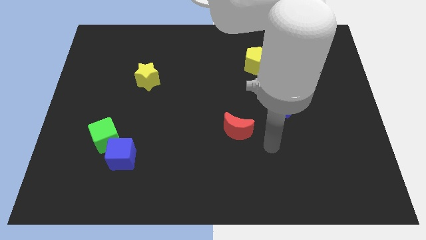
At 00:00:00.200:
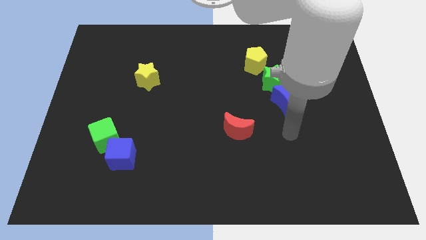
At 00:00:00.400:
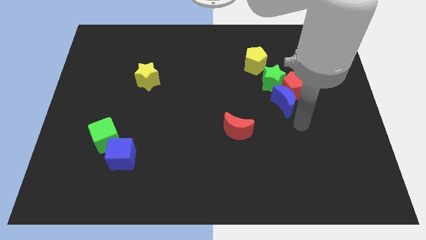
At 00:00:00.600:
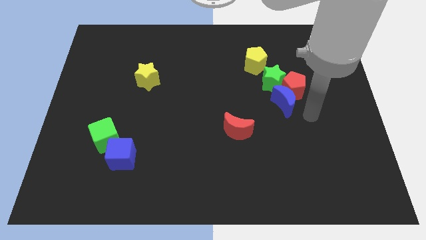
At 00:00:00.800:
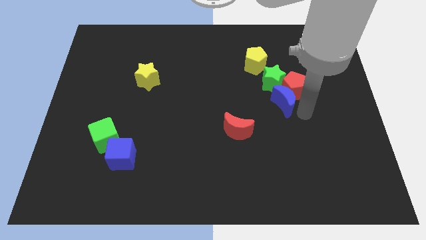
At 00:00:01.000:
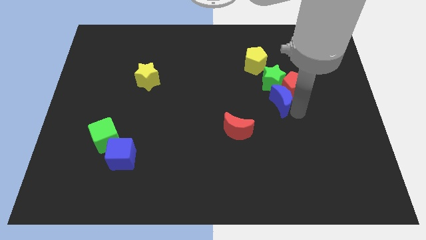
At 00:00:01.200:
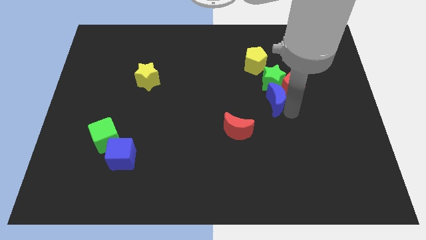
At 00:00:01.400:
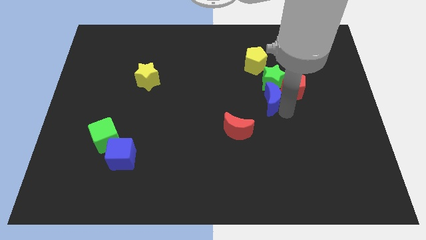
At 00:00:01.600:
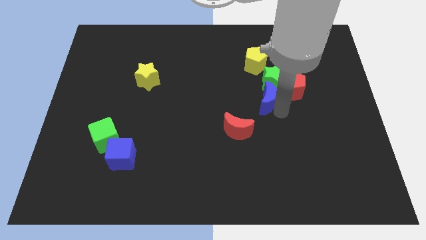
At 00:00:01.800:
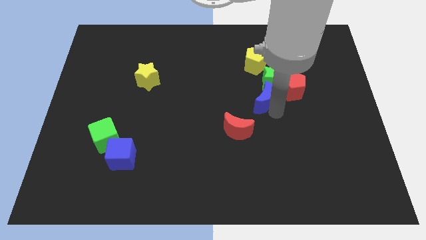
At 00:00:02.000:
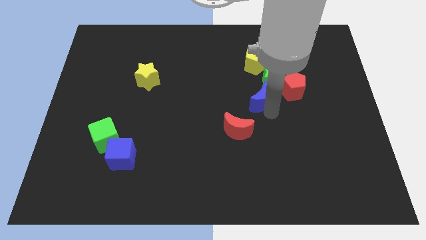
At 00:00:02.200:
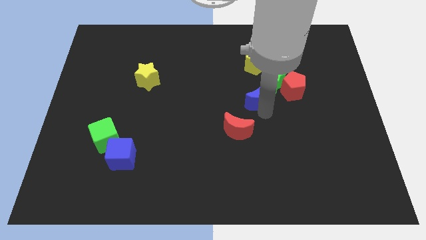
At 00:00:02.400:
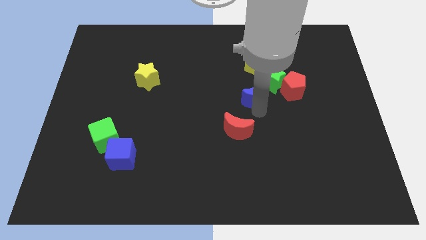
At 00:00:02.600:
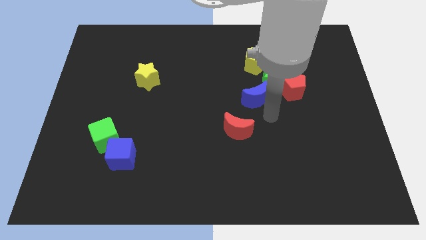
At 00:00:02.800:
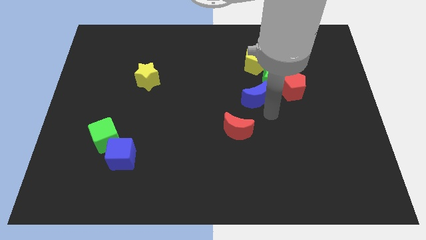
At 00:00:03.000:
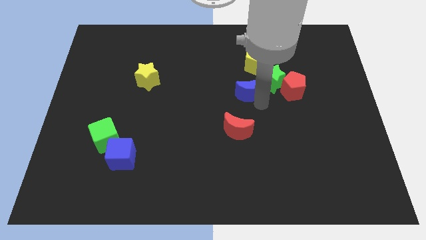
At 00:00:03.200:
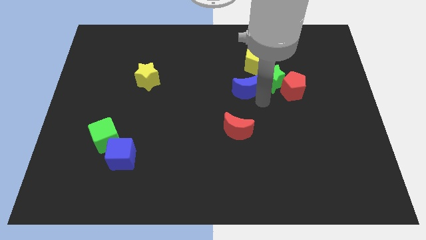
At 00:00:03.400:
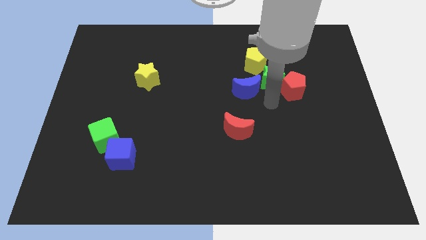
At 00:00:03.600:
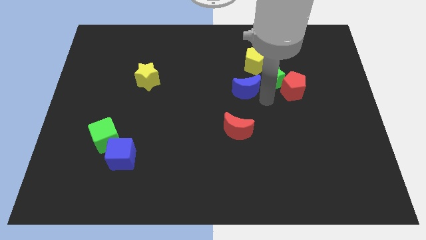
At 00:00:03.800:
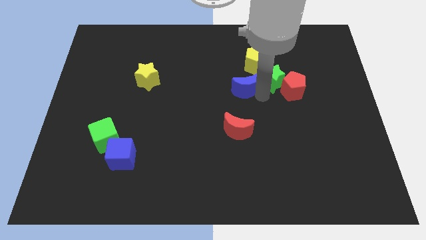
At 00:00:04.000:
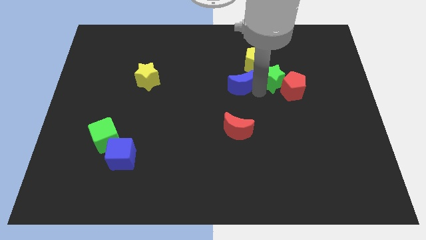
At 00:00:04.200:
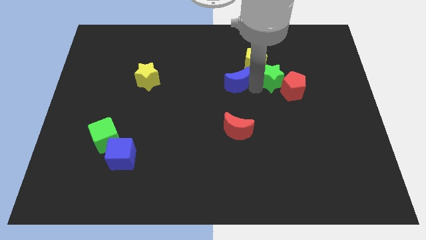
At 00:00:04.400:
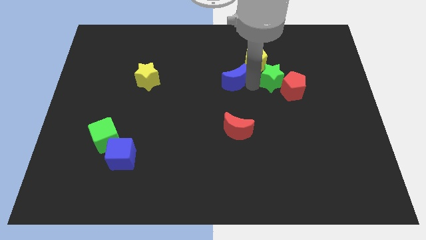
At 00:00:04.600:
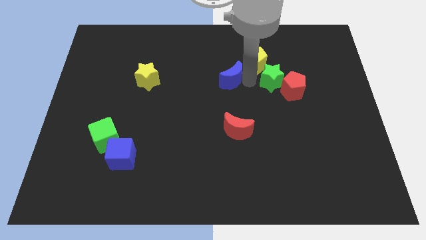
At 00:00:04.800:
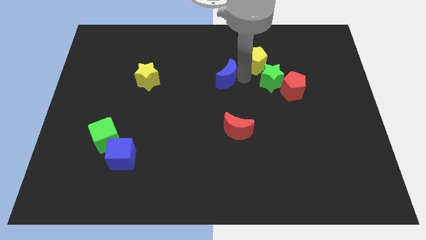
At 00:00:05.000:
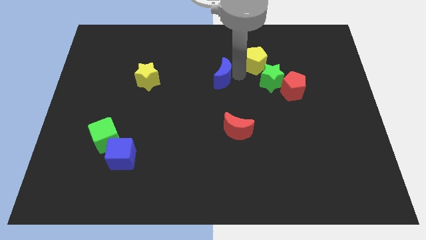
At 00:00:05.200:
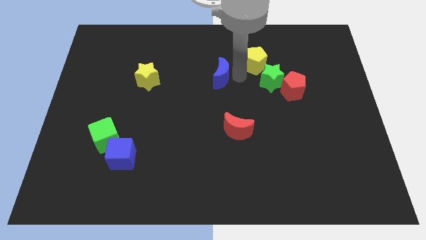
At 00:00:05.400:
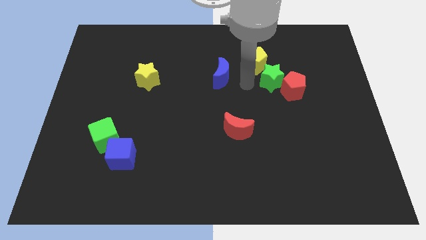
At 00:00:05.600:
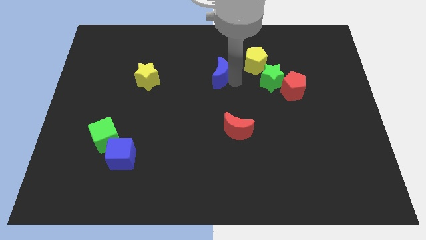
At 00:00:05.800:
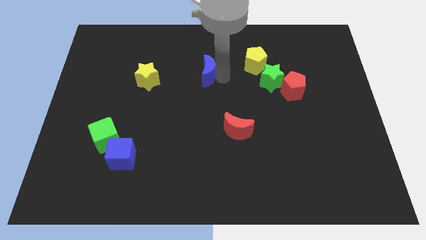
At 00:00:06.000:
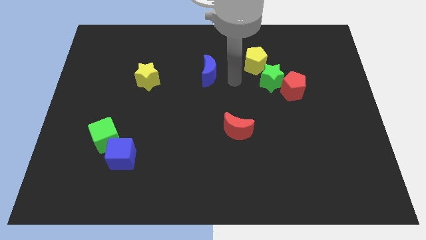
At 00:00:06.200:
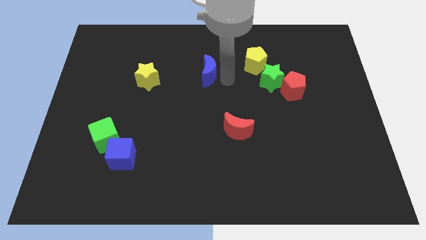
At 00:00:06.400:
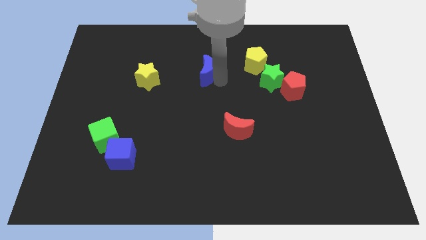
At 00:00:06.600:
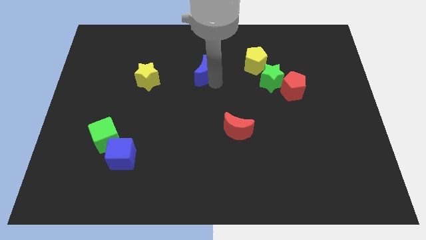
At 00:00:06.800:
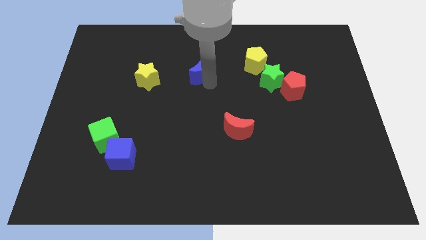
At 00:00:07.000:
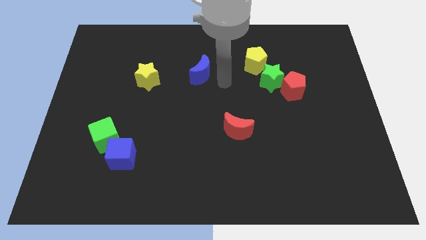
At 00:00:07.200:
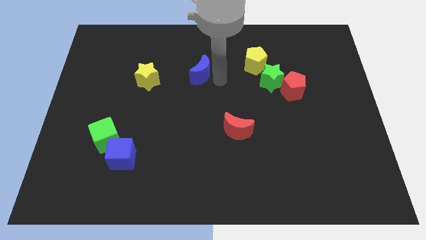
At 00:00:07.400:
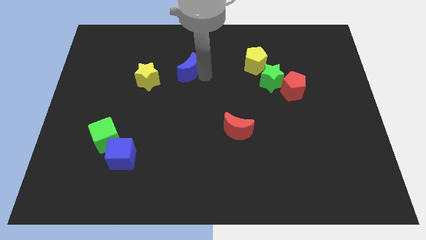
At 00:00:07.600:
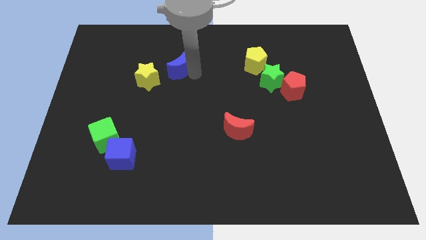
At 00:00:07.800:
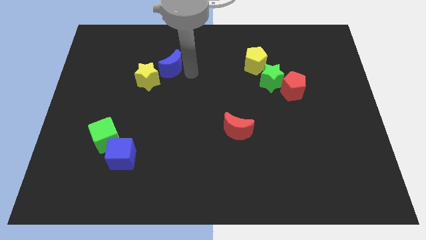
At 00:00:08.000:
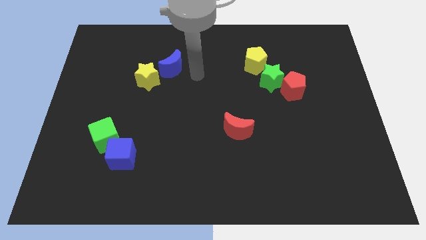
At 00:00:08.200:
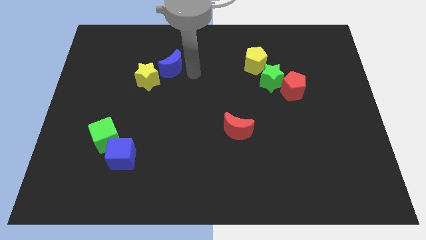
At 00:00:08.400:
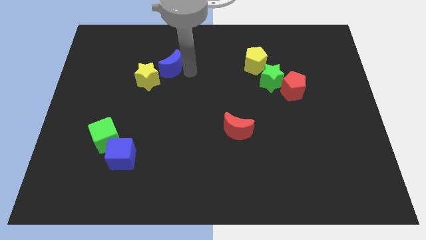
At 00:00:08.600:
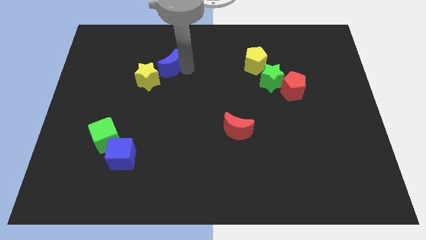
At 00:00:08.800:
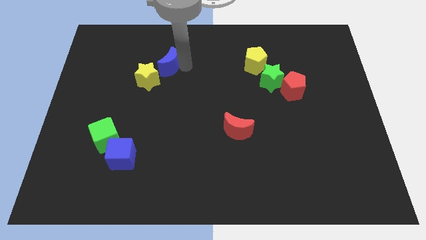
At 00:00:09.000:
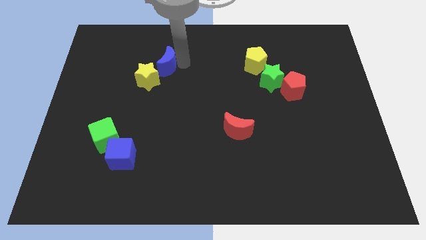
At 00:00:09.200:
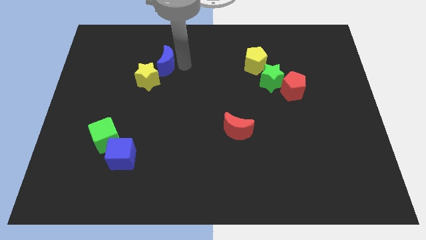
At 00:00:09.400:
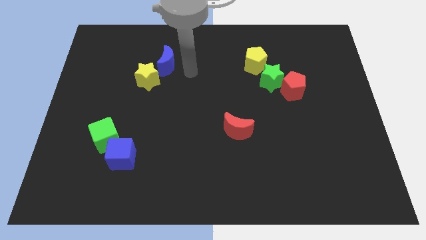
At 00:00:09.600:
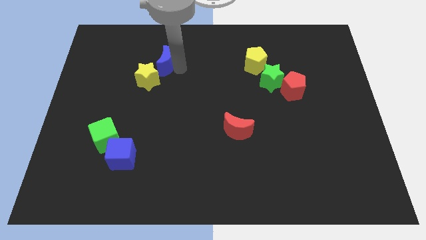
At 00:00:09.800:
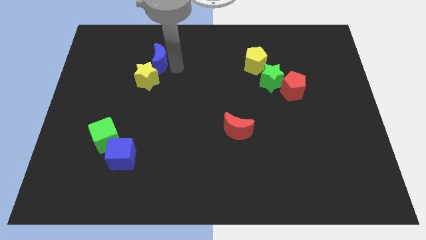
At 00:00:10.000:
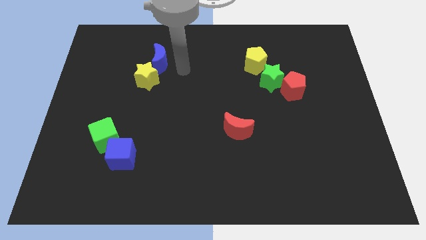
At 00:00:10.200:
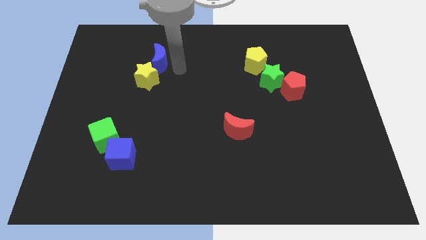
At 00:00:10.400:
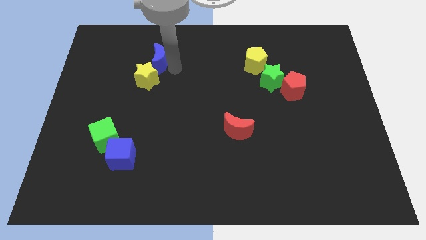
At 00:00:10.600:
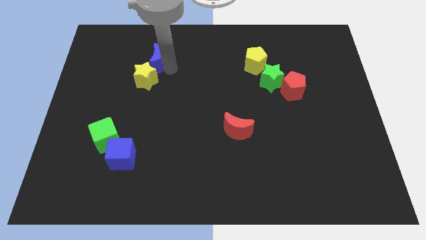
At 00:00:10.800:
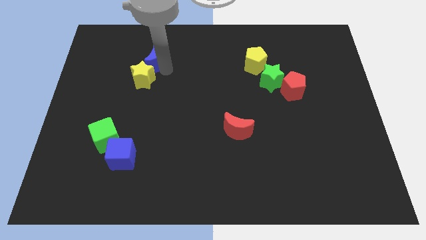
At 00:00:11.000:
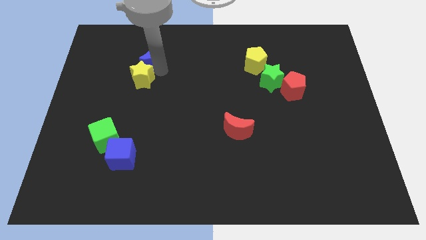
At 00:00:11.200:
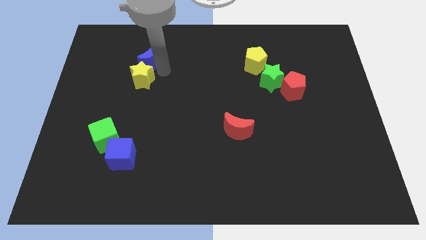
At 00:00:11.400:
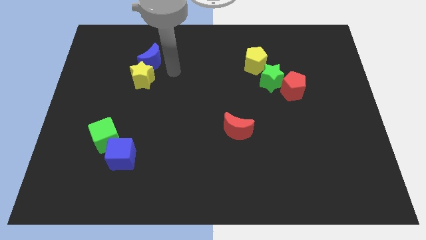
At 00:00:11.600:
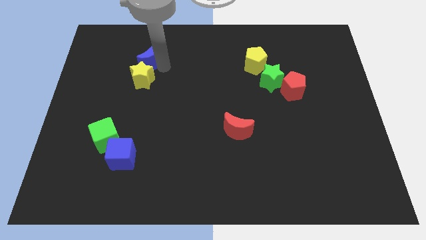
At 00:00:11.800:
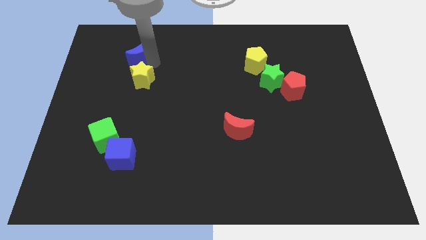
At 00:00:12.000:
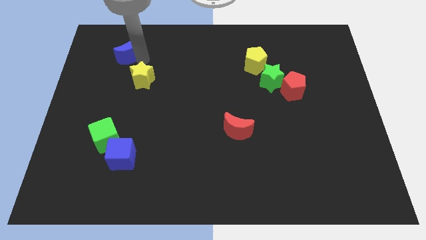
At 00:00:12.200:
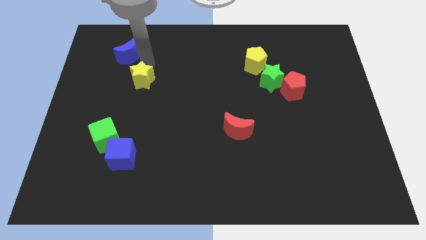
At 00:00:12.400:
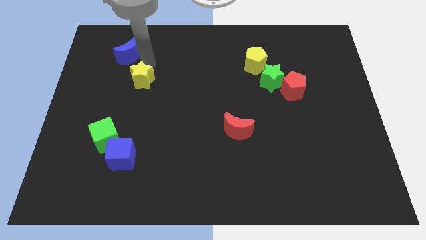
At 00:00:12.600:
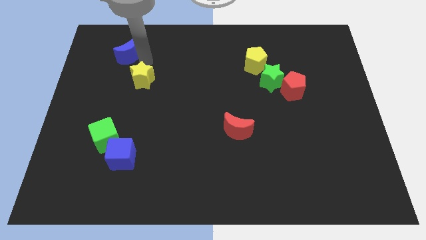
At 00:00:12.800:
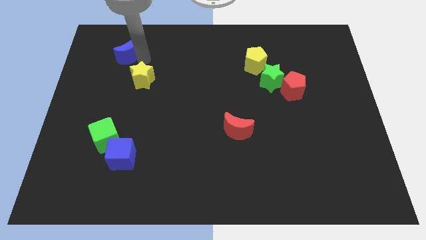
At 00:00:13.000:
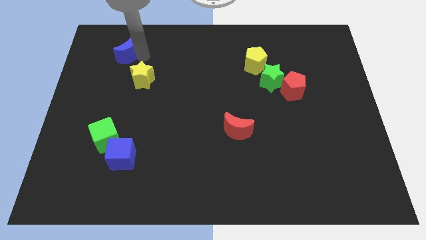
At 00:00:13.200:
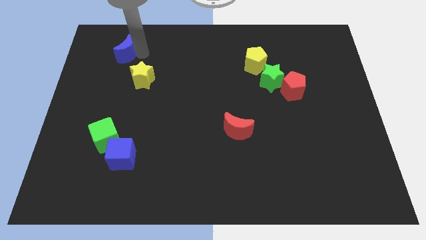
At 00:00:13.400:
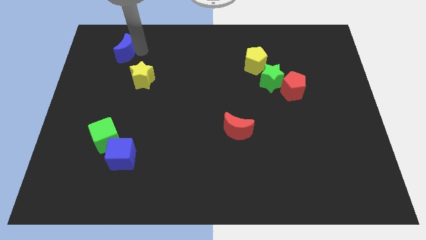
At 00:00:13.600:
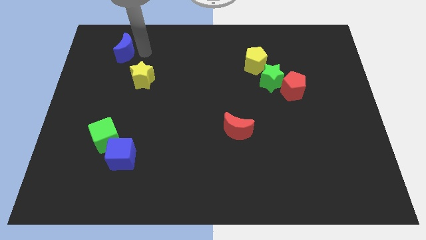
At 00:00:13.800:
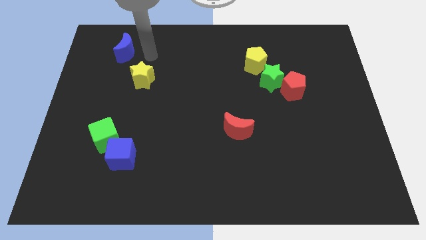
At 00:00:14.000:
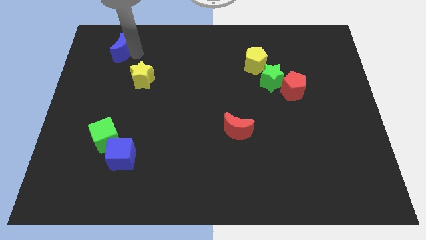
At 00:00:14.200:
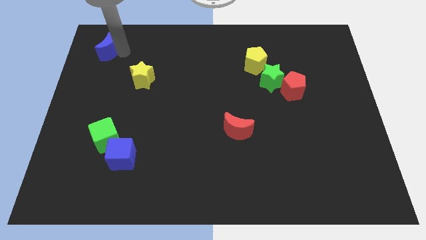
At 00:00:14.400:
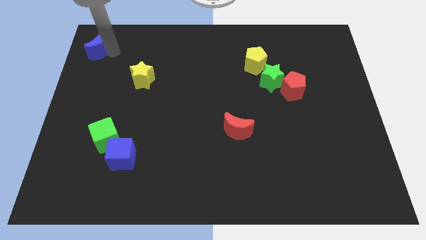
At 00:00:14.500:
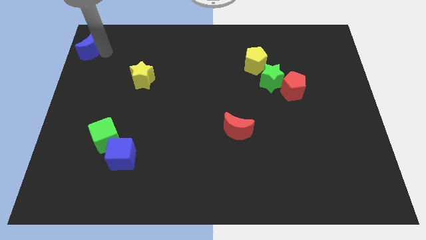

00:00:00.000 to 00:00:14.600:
slide the blue moon to the top left
